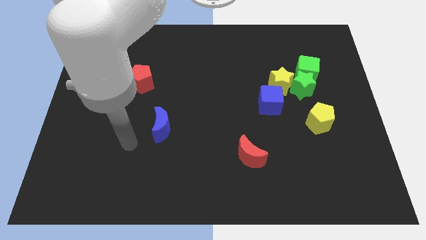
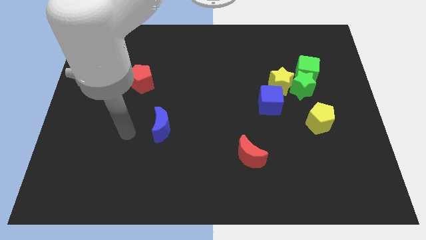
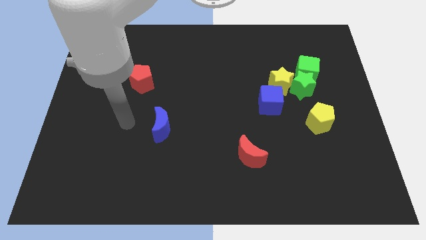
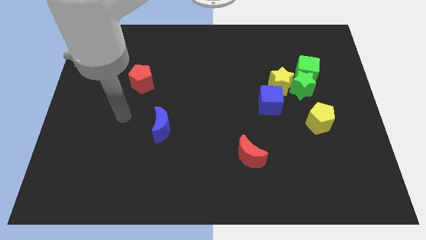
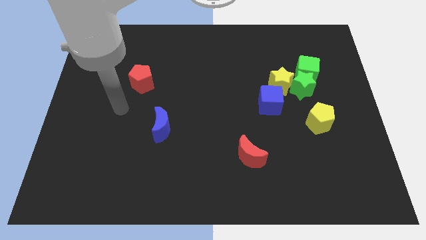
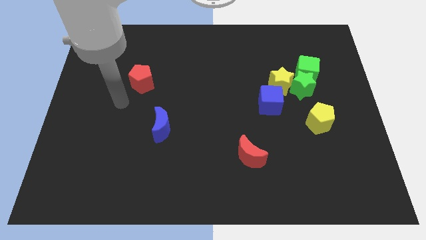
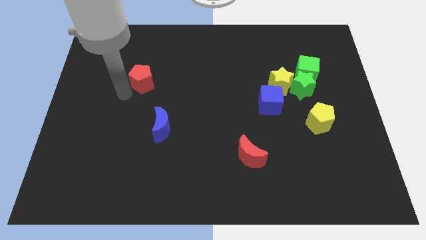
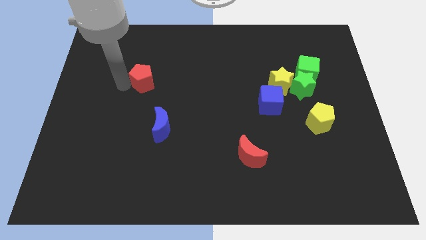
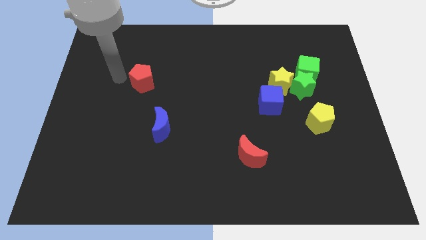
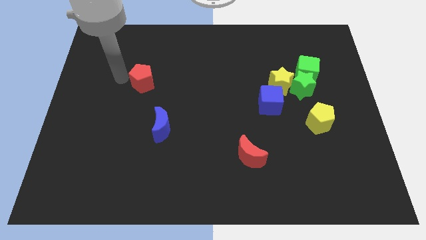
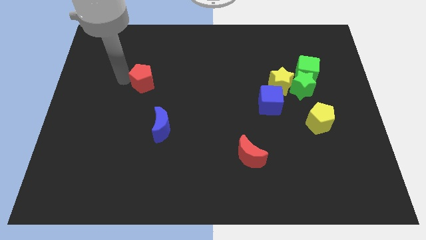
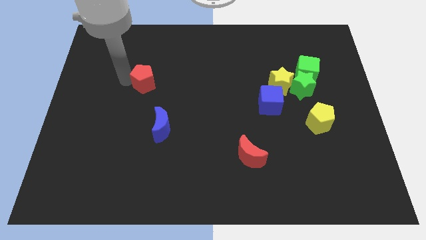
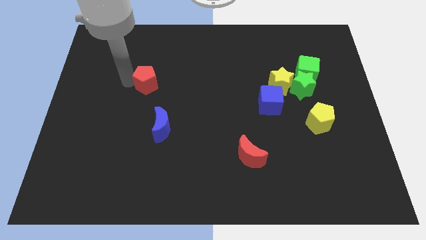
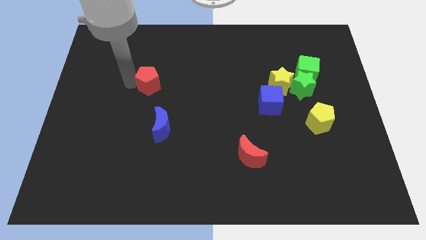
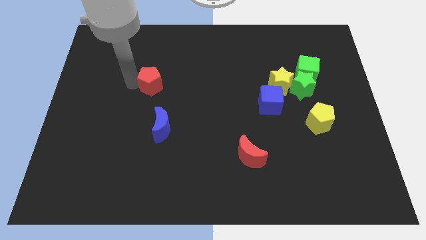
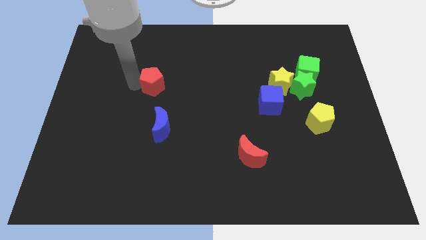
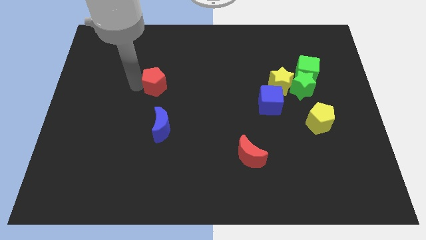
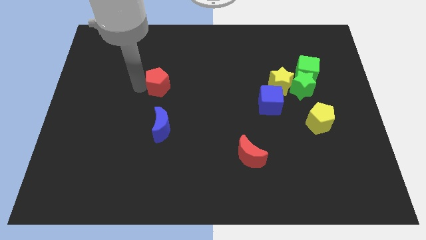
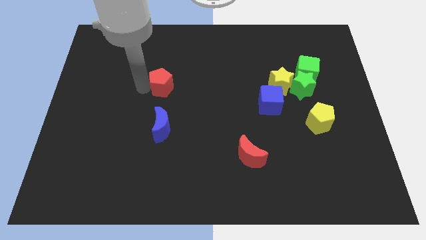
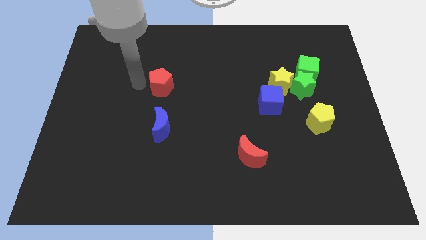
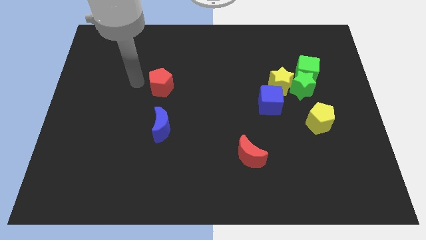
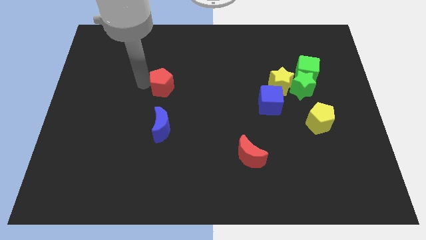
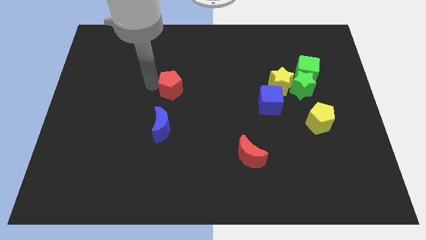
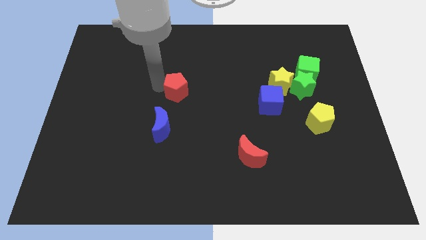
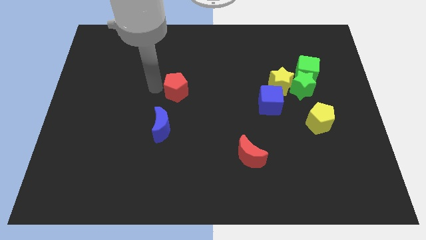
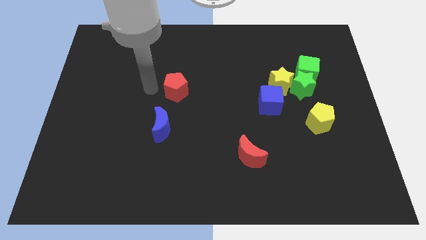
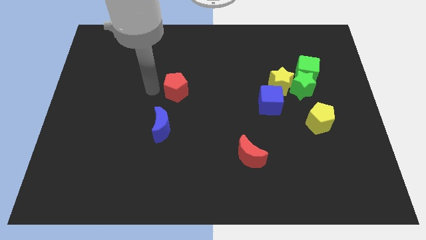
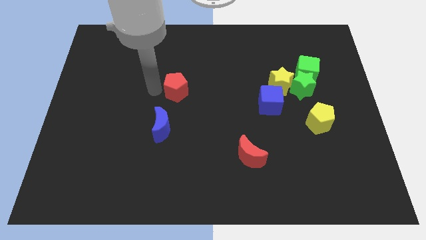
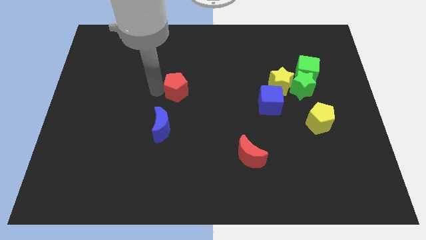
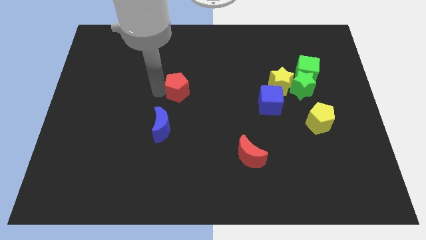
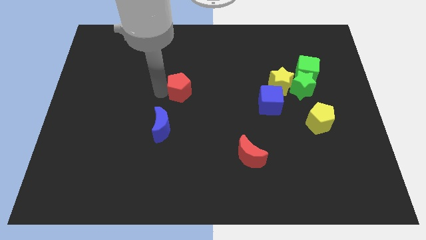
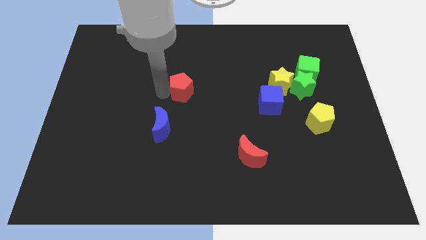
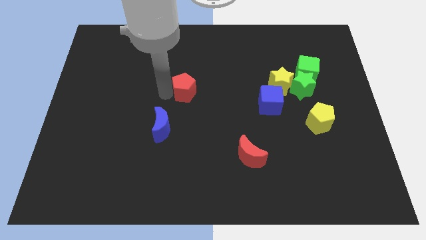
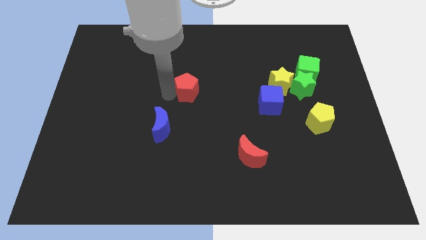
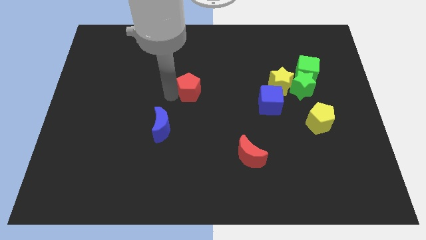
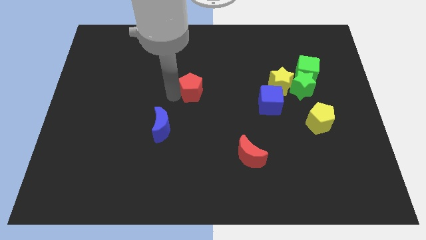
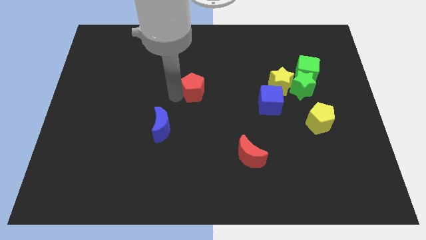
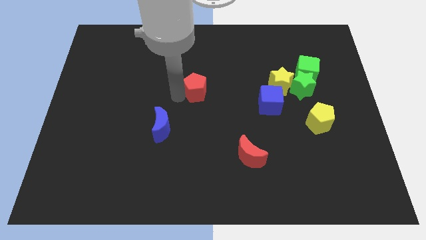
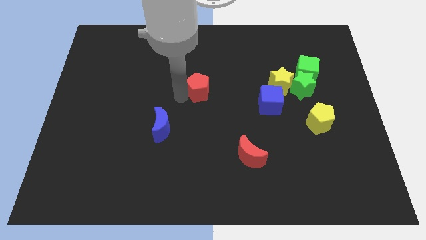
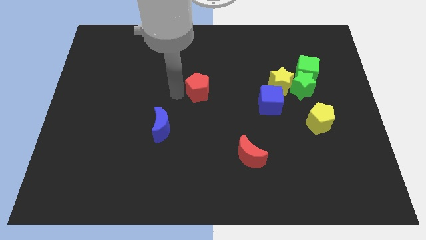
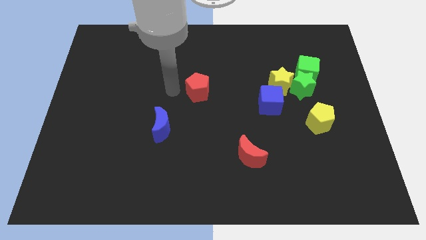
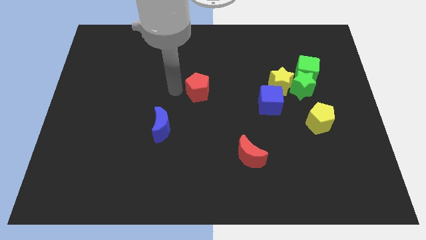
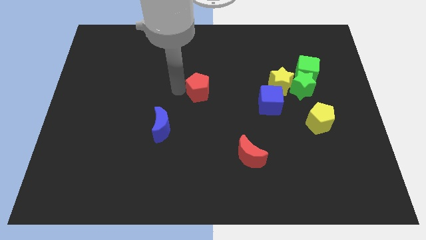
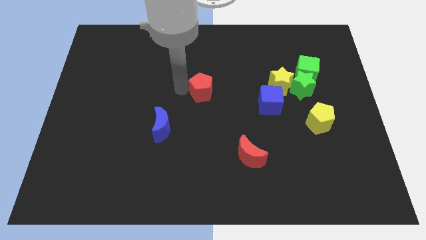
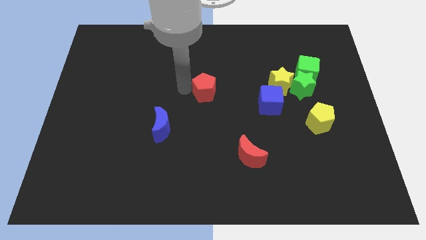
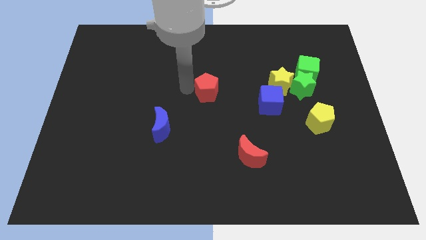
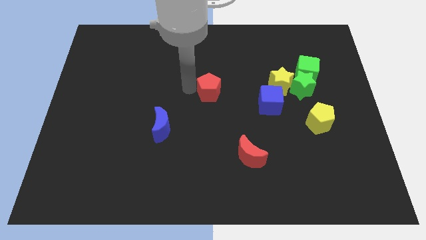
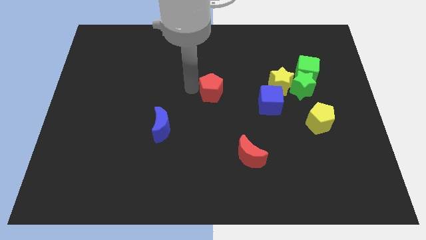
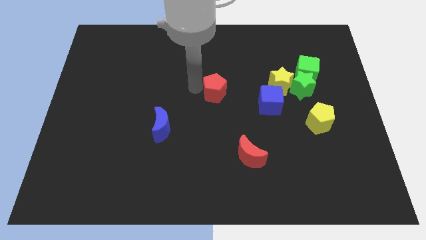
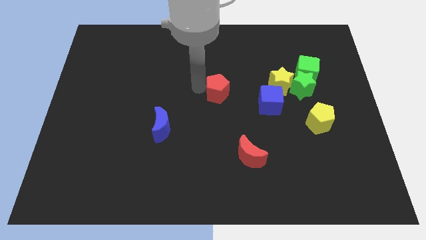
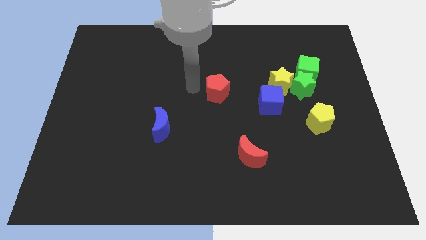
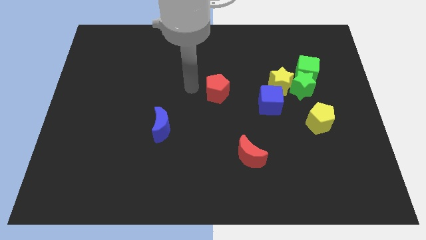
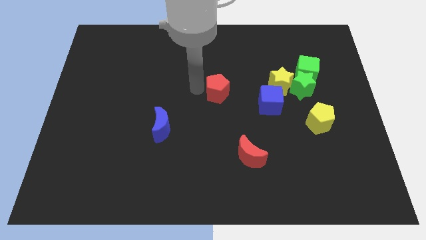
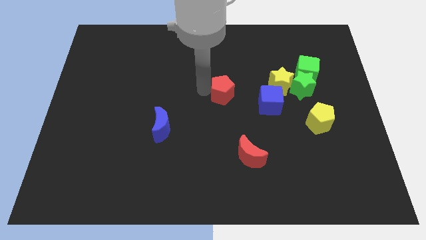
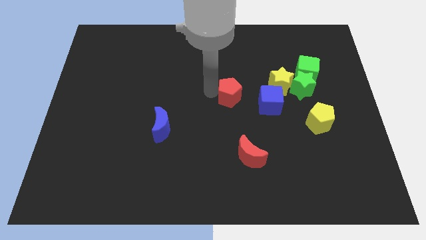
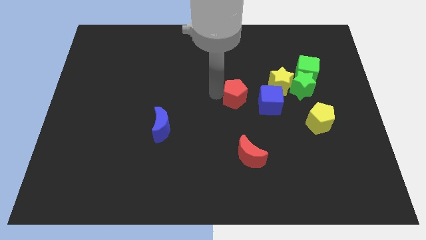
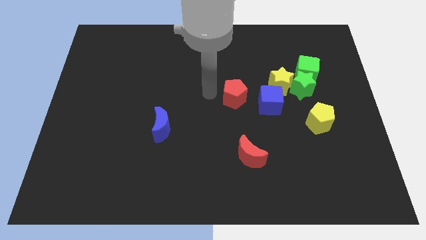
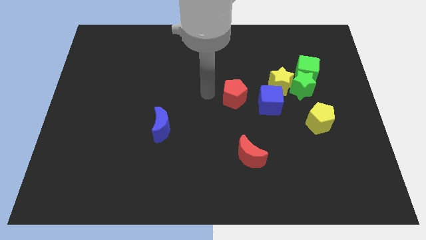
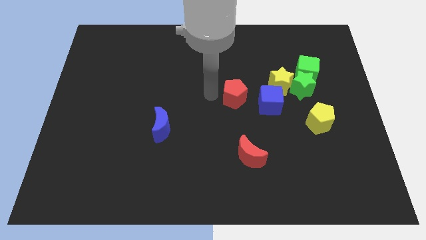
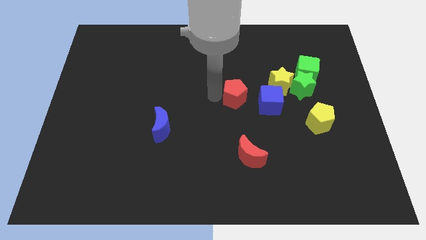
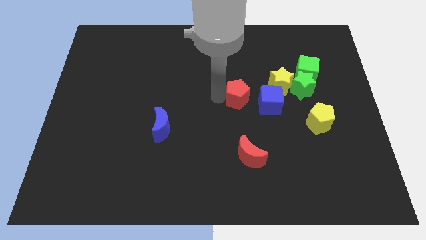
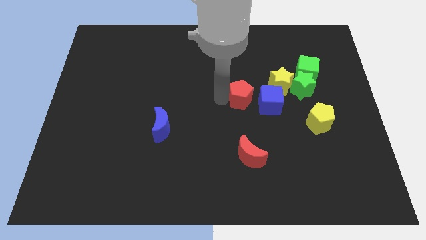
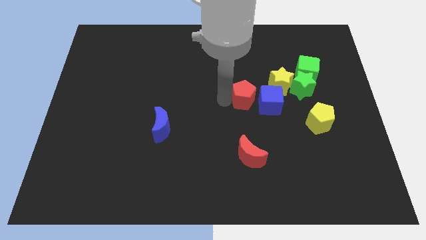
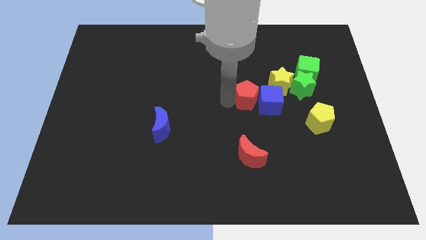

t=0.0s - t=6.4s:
put the red pentagon close to the blue cube

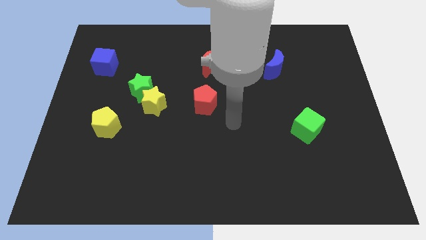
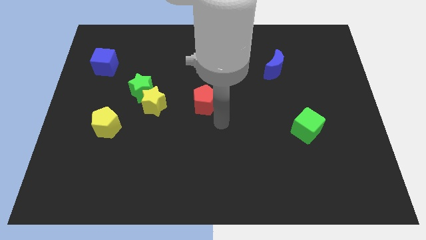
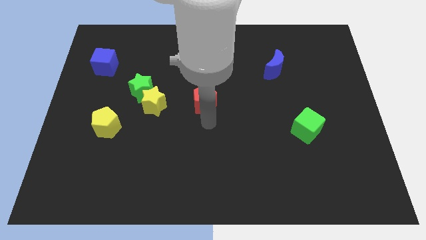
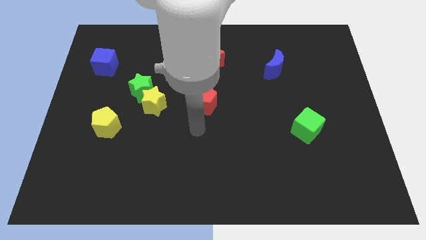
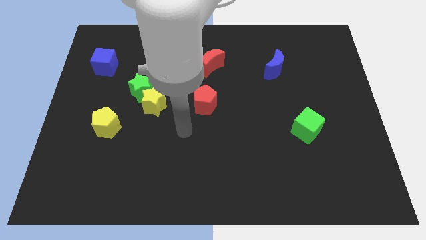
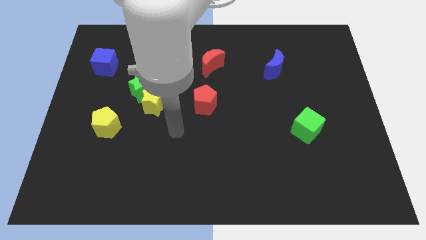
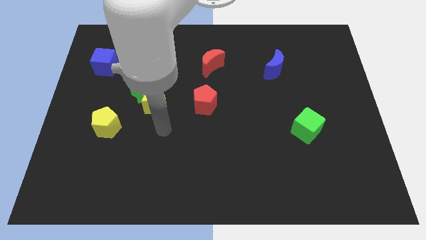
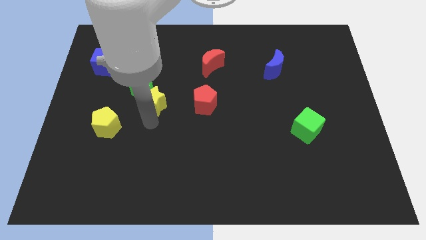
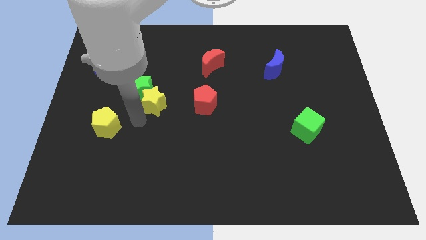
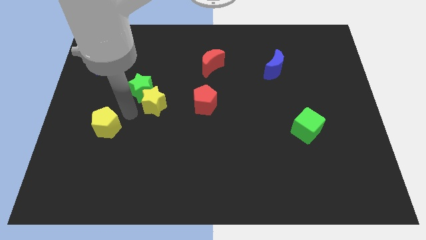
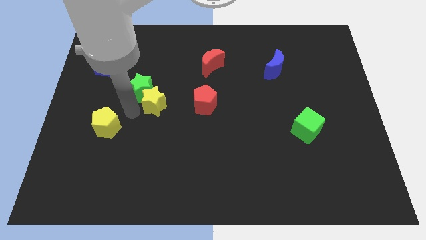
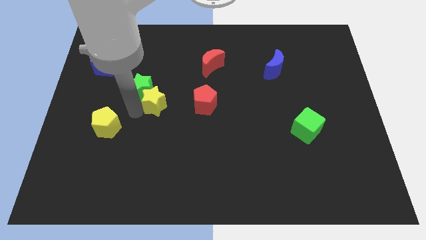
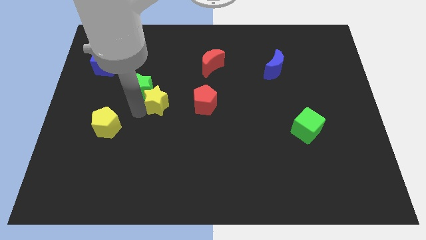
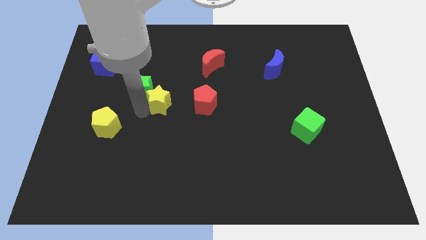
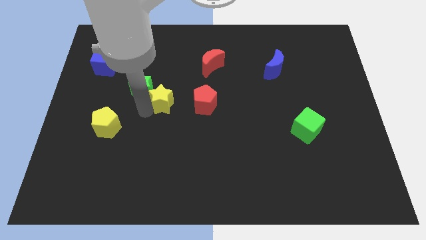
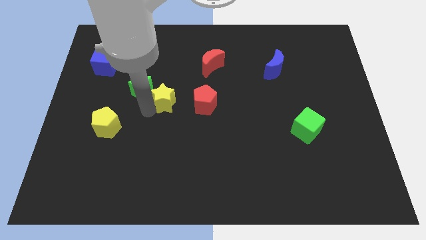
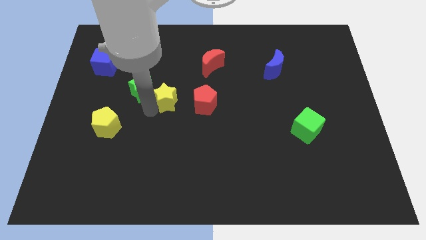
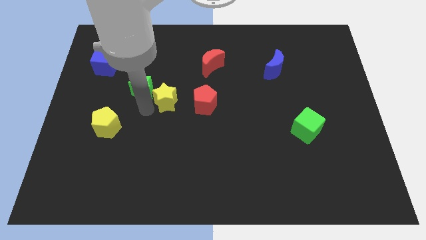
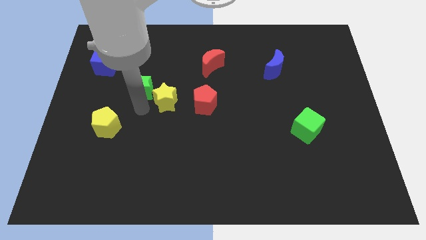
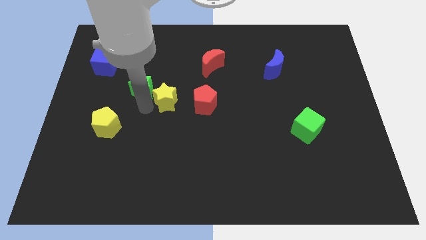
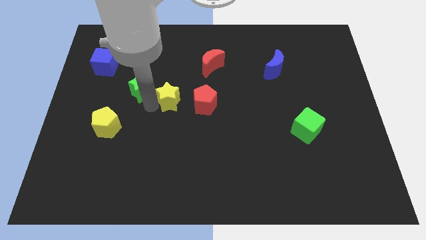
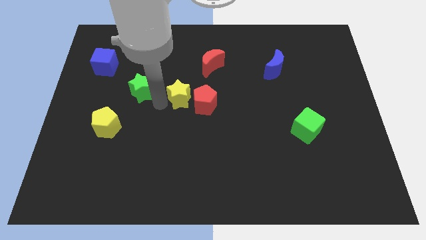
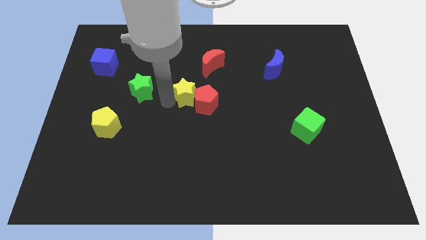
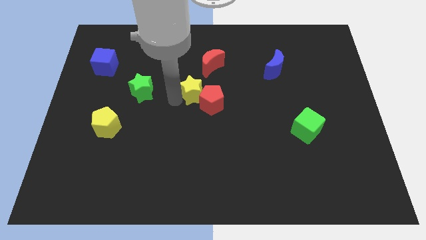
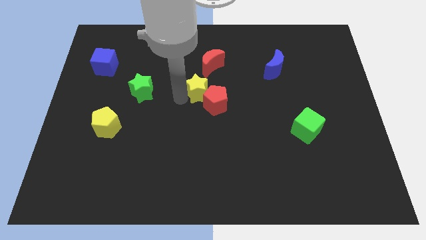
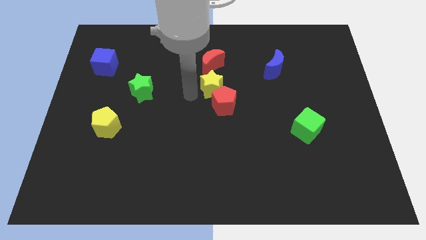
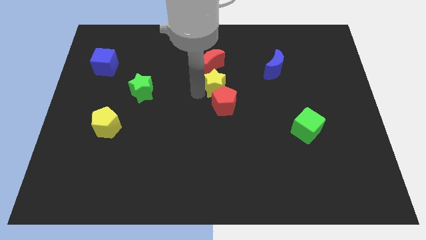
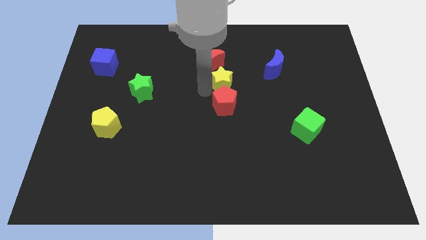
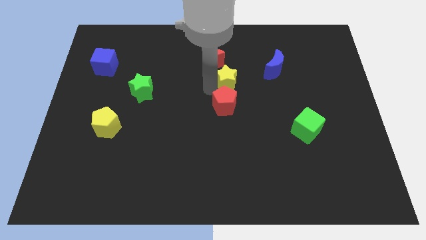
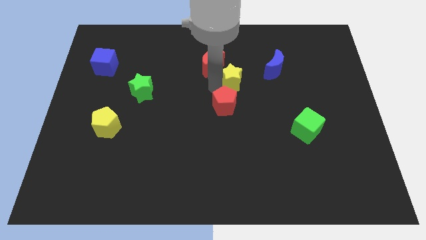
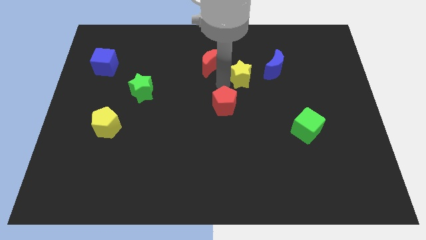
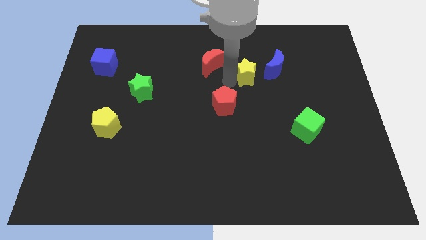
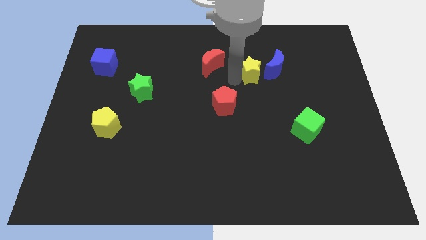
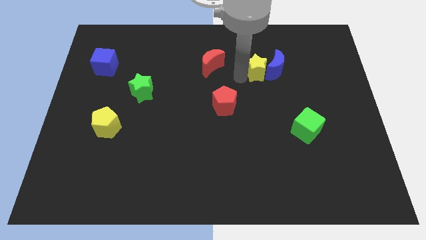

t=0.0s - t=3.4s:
push the yellow star towards the blue moon
